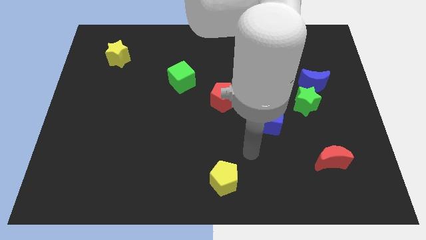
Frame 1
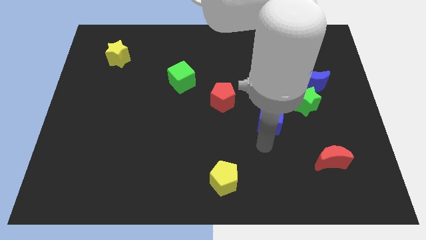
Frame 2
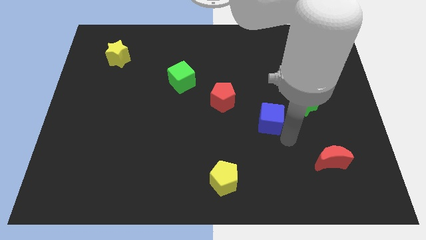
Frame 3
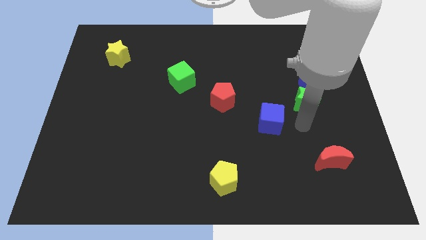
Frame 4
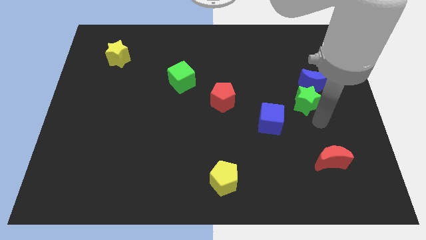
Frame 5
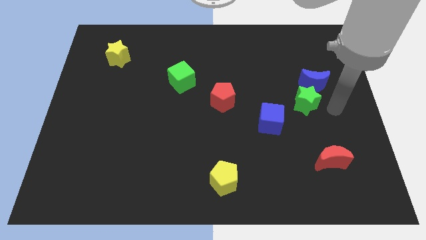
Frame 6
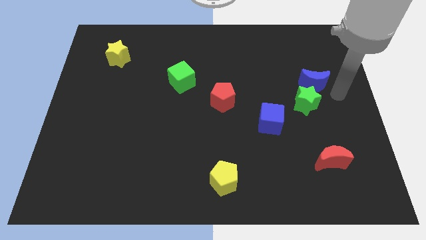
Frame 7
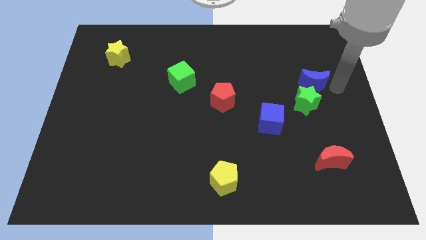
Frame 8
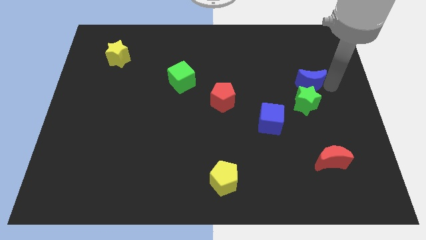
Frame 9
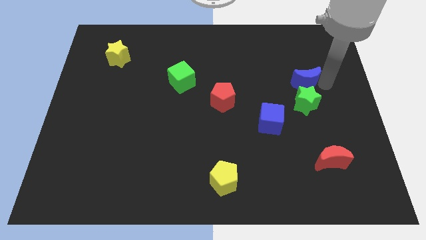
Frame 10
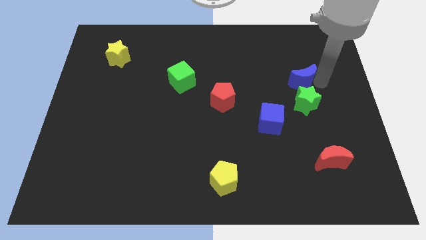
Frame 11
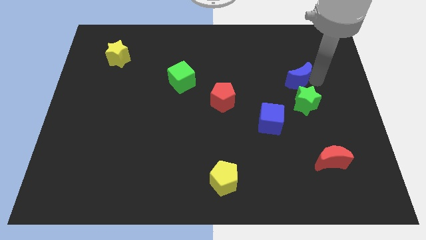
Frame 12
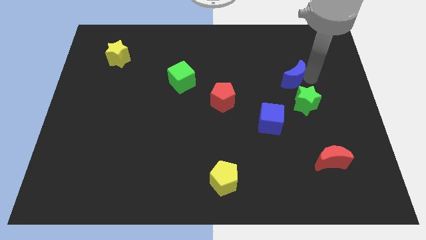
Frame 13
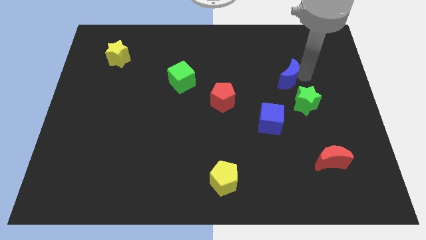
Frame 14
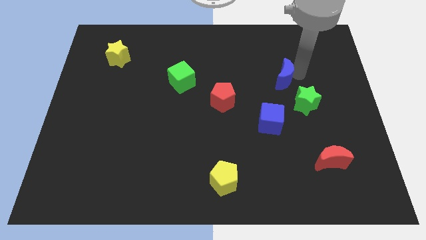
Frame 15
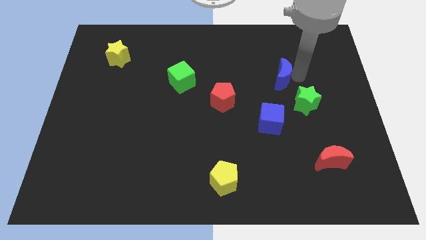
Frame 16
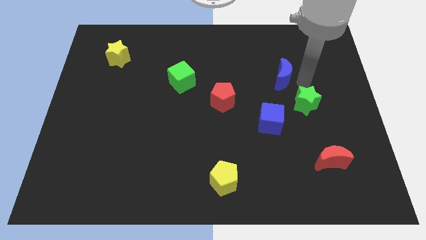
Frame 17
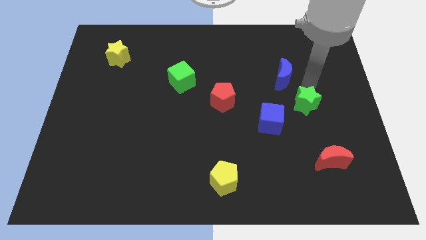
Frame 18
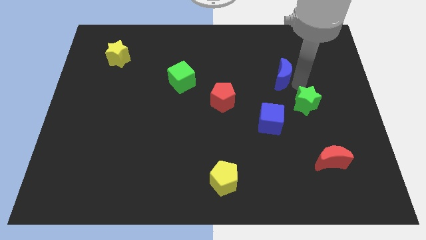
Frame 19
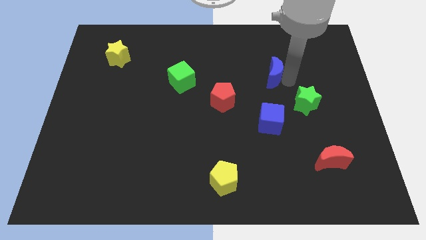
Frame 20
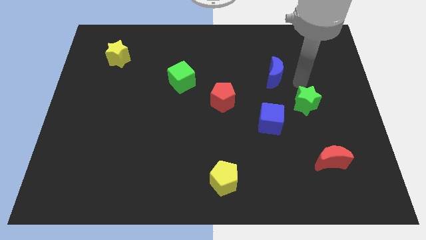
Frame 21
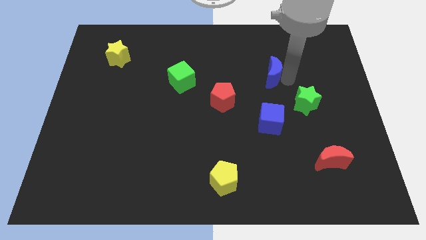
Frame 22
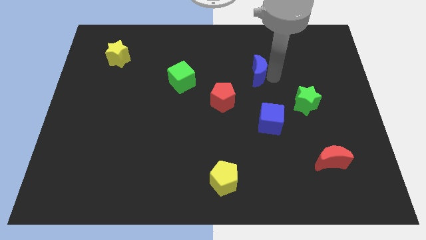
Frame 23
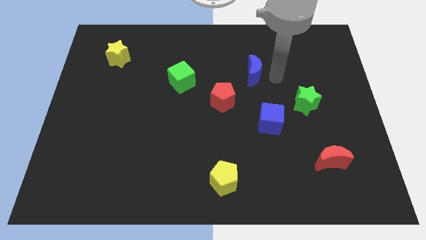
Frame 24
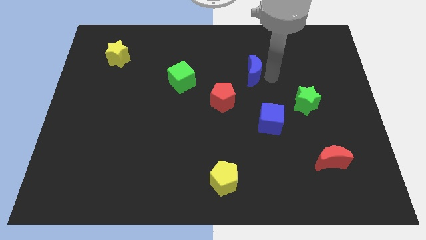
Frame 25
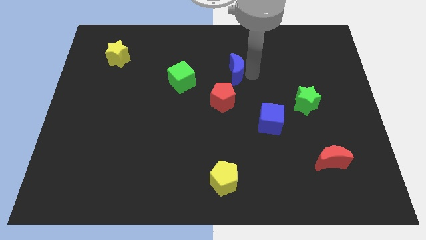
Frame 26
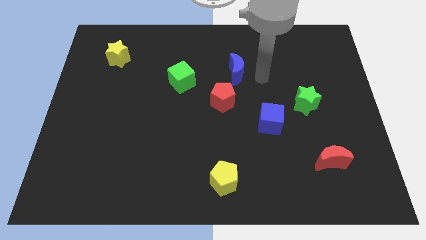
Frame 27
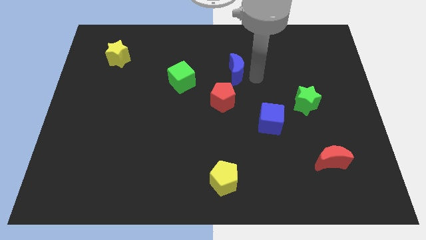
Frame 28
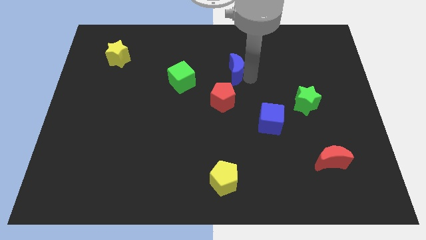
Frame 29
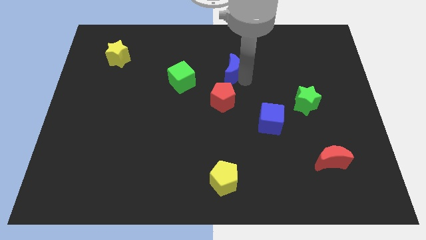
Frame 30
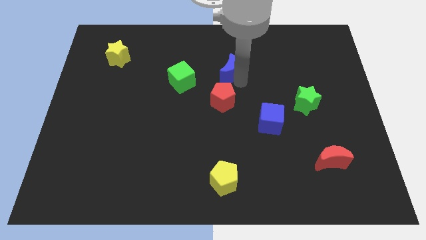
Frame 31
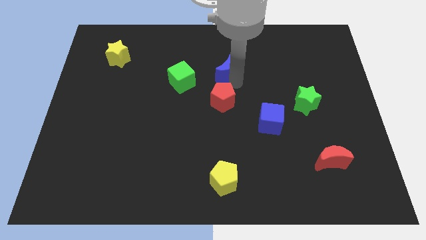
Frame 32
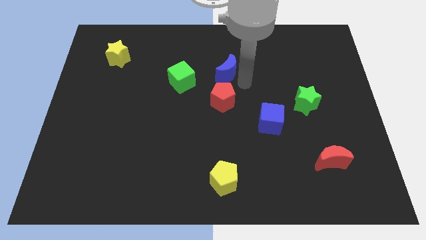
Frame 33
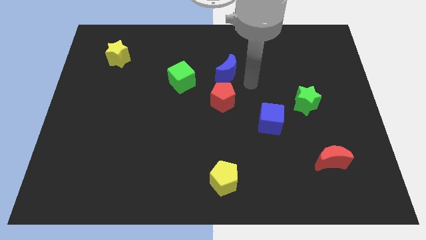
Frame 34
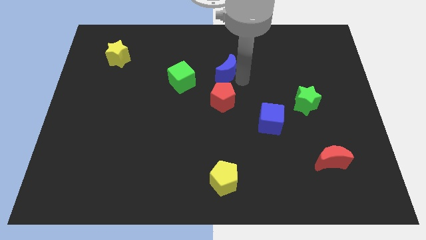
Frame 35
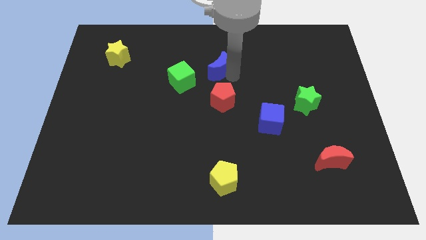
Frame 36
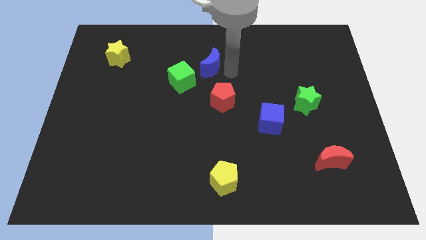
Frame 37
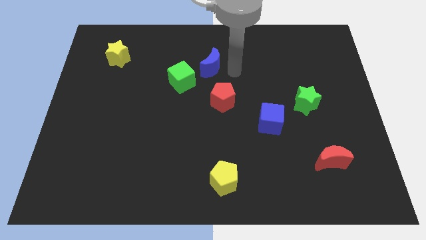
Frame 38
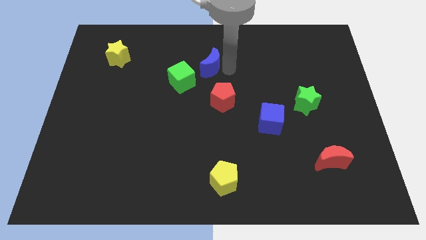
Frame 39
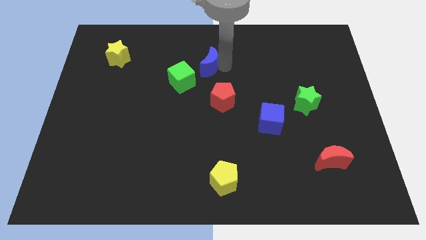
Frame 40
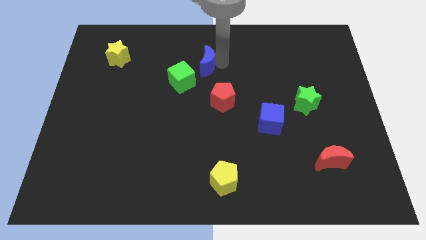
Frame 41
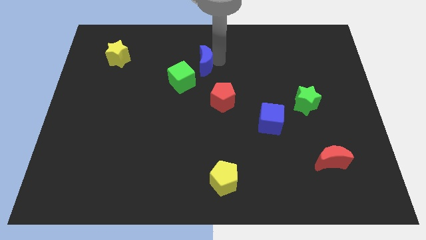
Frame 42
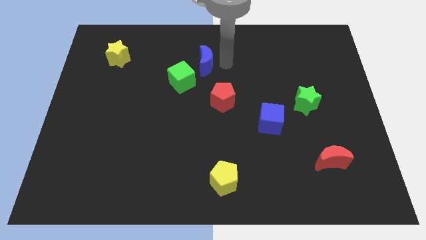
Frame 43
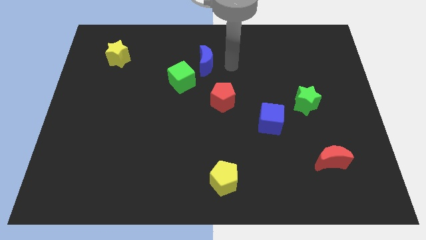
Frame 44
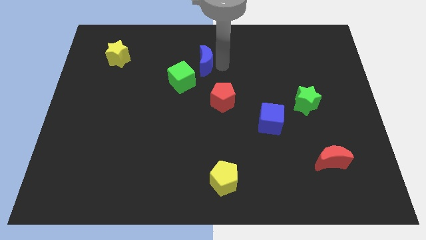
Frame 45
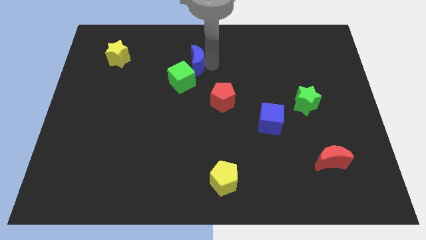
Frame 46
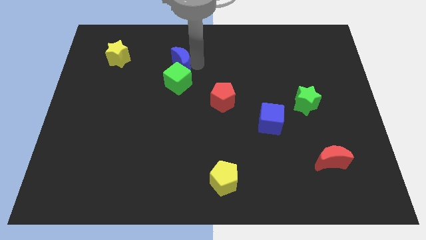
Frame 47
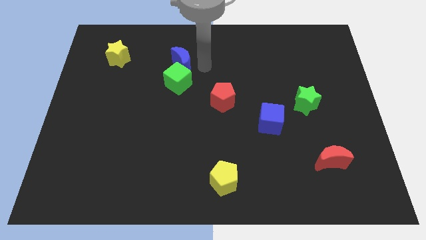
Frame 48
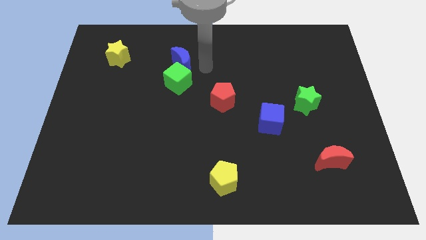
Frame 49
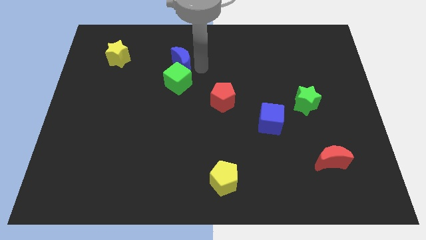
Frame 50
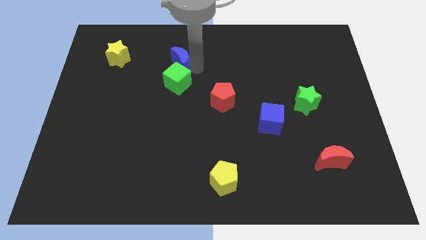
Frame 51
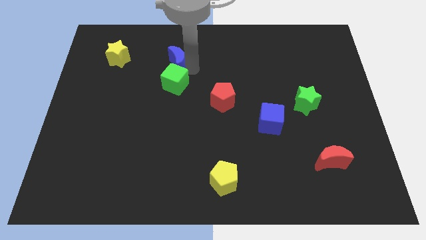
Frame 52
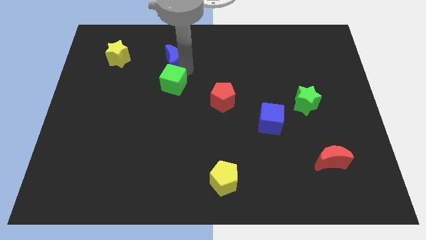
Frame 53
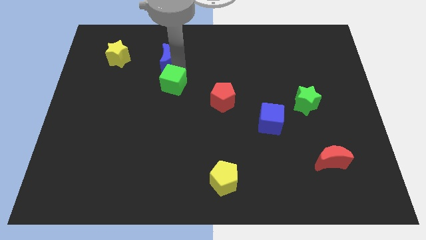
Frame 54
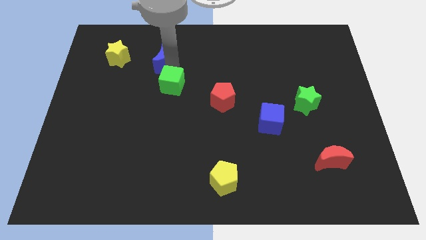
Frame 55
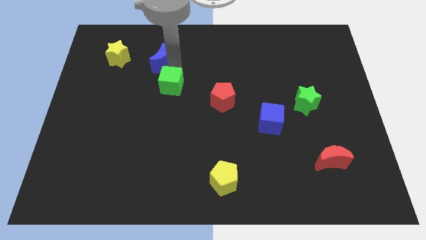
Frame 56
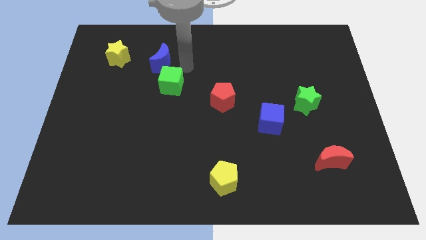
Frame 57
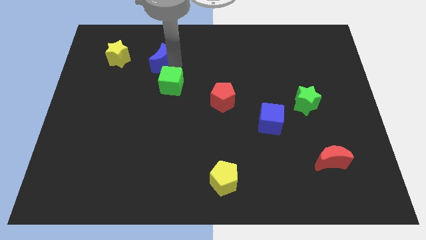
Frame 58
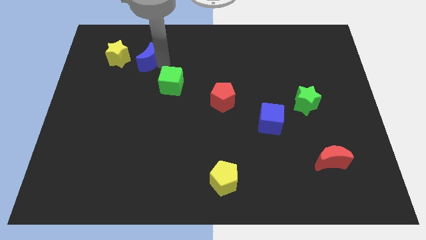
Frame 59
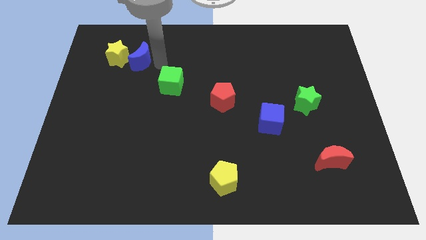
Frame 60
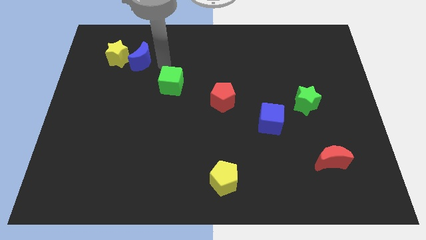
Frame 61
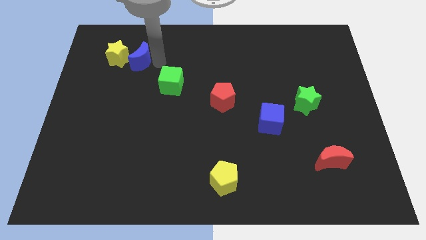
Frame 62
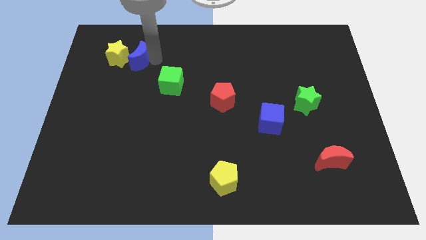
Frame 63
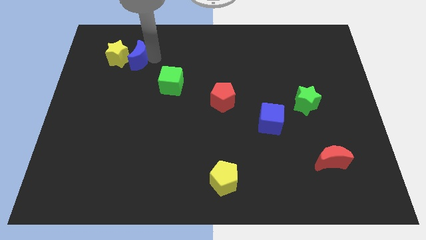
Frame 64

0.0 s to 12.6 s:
push the blue moon towards the yellow star

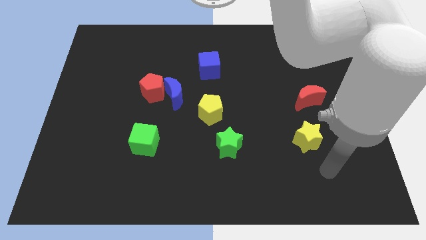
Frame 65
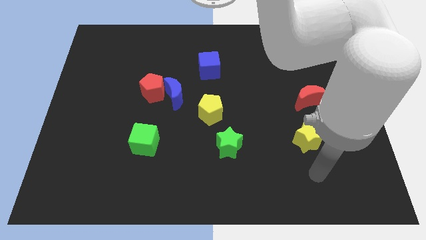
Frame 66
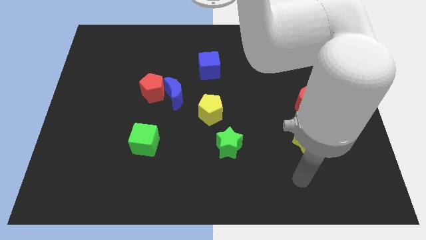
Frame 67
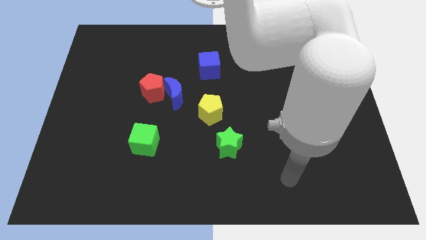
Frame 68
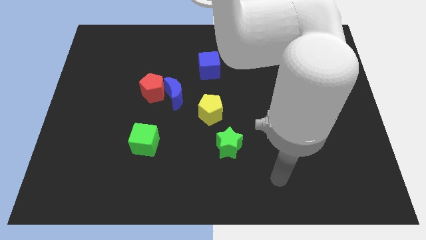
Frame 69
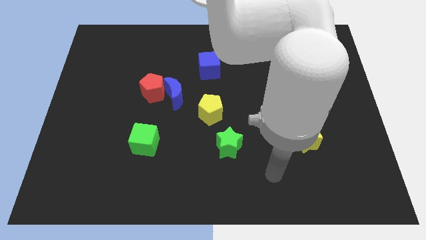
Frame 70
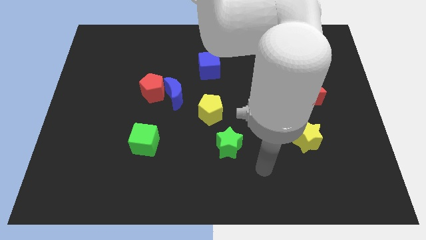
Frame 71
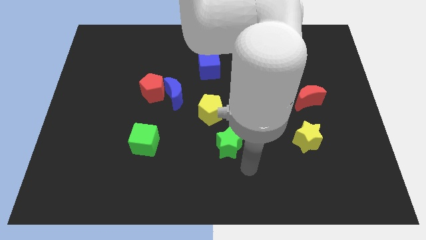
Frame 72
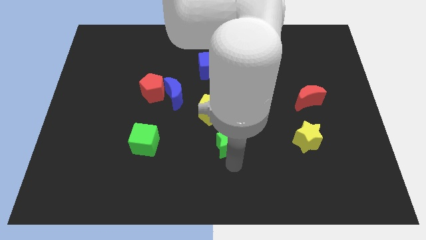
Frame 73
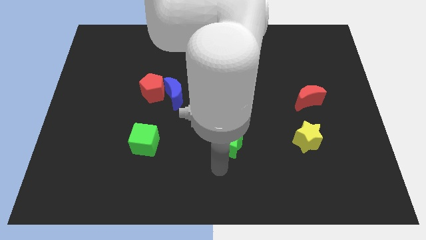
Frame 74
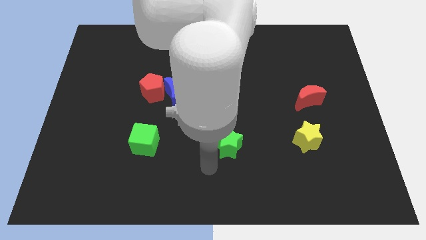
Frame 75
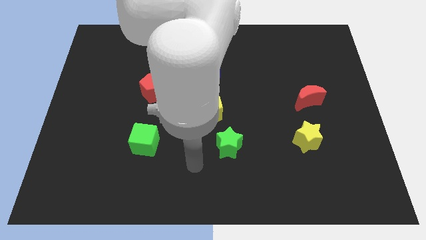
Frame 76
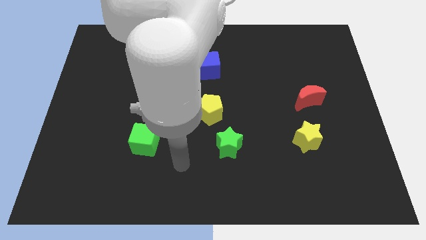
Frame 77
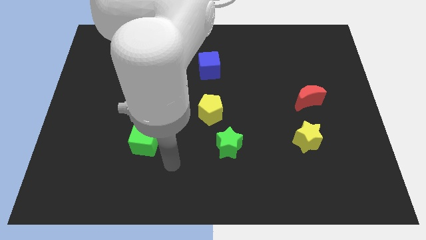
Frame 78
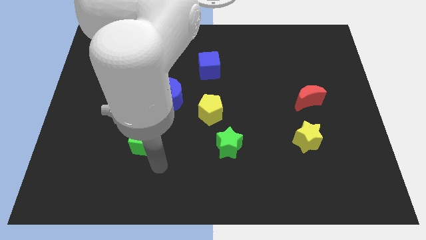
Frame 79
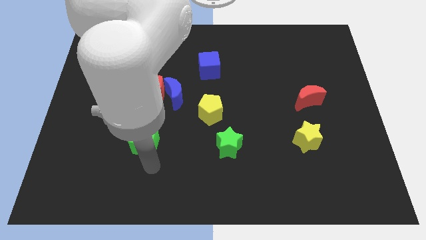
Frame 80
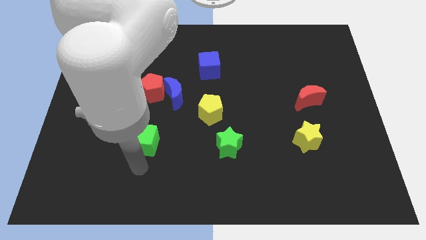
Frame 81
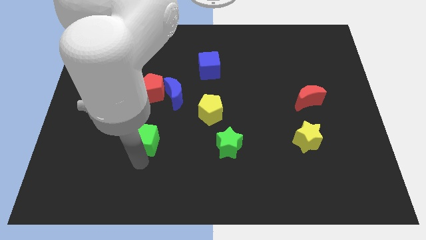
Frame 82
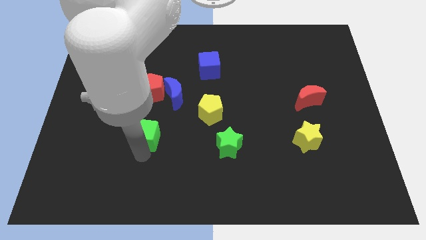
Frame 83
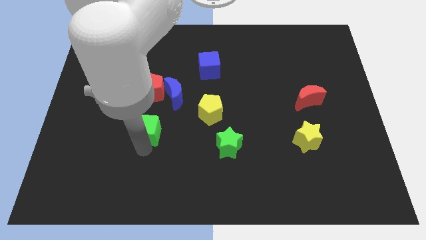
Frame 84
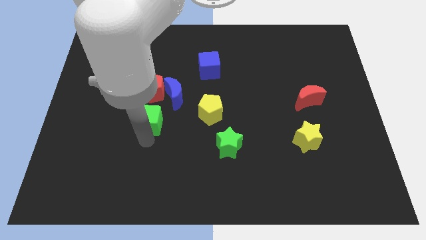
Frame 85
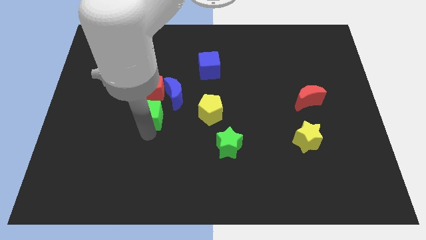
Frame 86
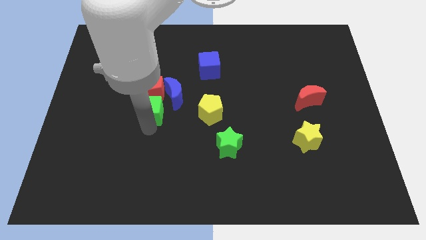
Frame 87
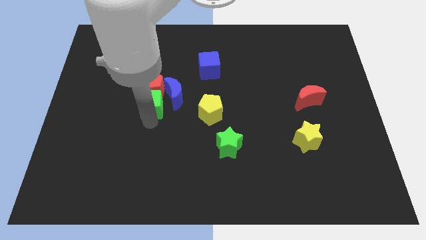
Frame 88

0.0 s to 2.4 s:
put the green cube towards the red pentagon
